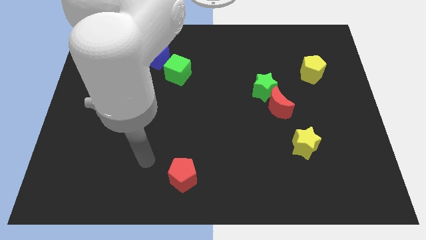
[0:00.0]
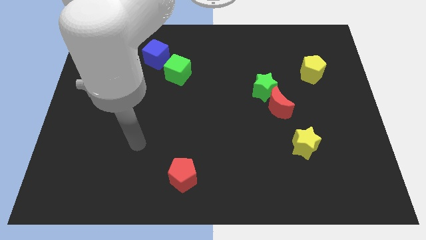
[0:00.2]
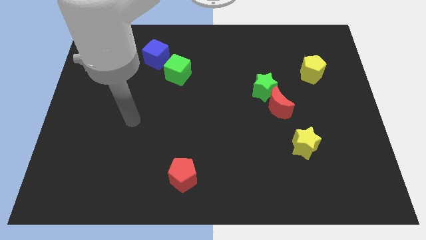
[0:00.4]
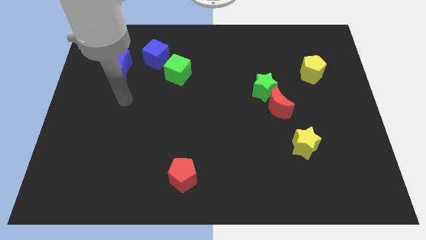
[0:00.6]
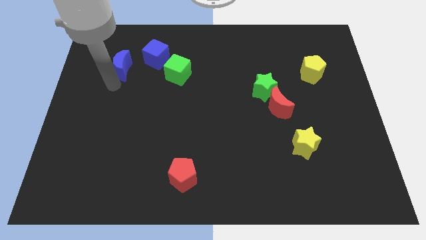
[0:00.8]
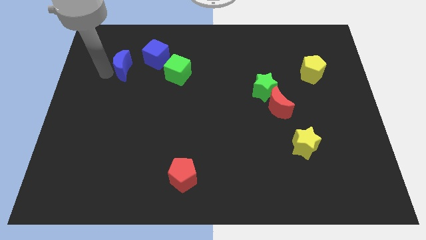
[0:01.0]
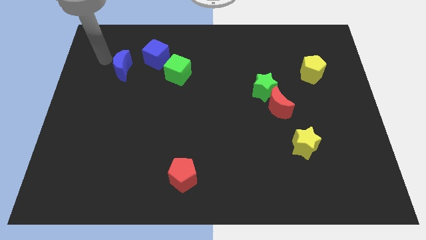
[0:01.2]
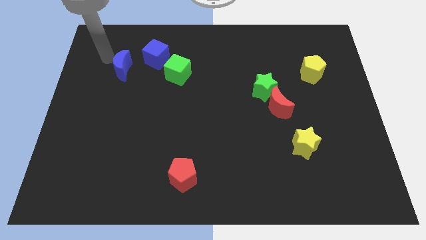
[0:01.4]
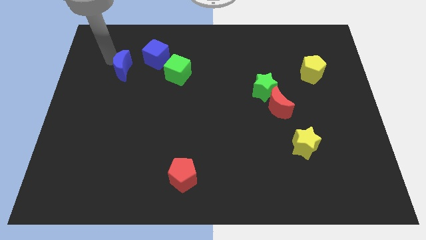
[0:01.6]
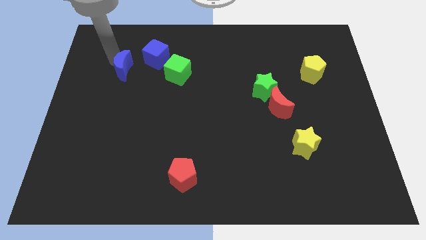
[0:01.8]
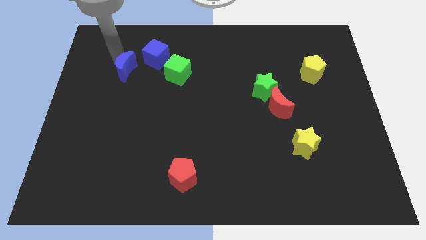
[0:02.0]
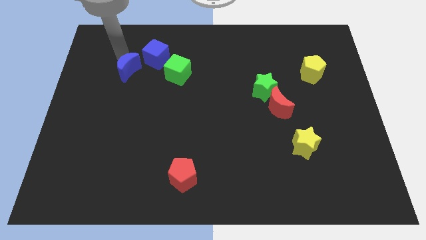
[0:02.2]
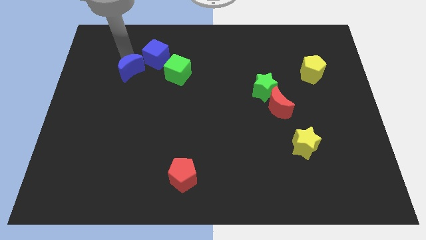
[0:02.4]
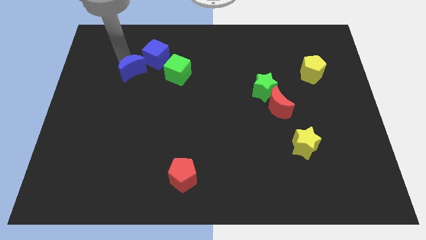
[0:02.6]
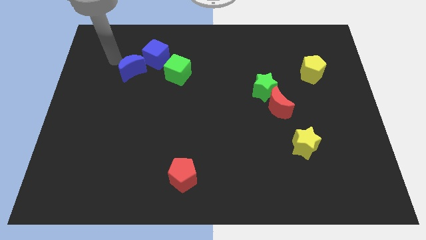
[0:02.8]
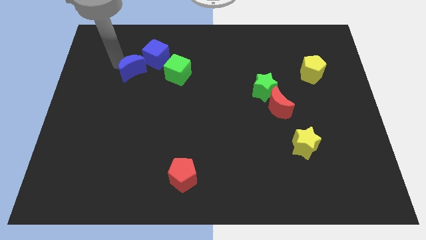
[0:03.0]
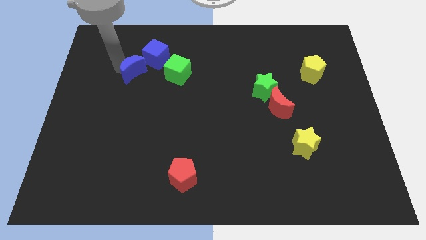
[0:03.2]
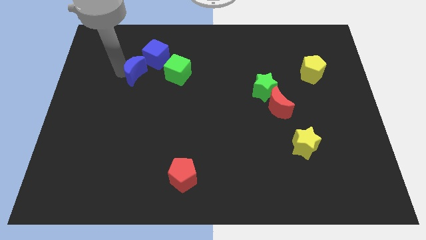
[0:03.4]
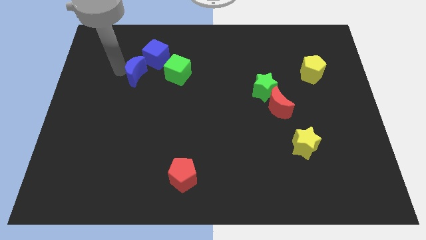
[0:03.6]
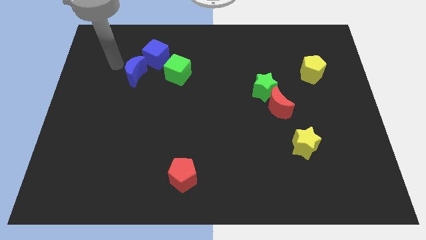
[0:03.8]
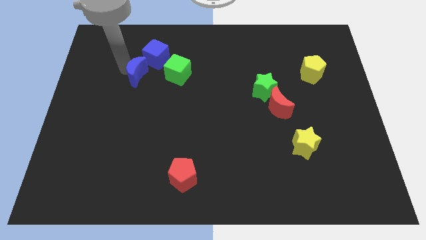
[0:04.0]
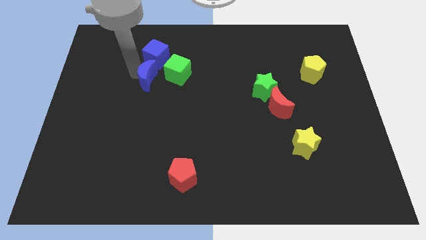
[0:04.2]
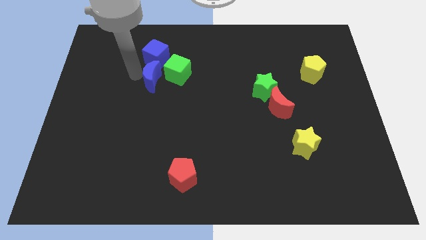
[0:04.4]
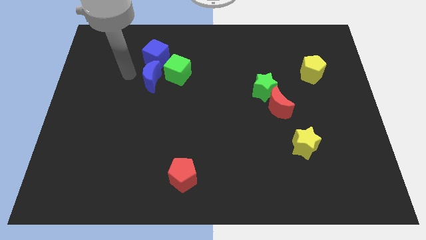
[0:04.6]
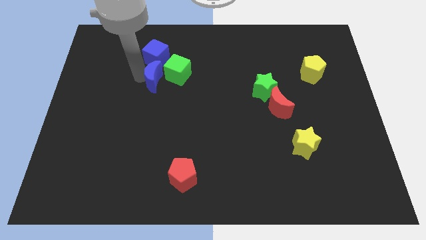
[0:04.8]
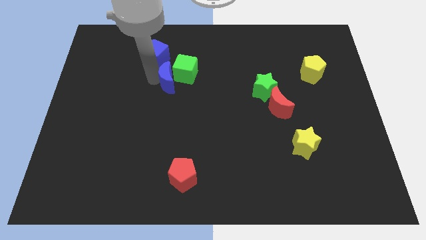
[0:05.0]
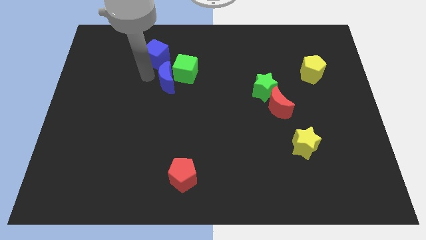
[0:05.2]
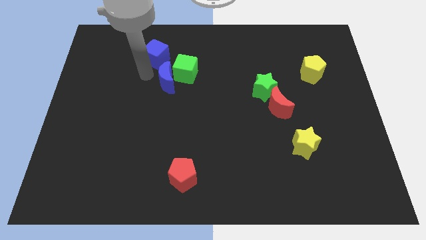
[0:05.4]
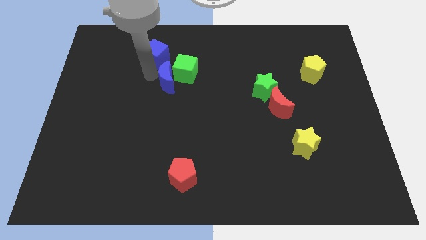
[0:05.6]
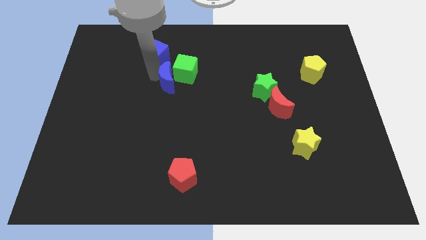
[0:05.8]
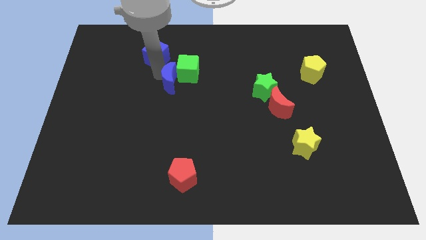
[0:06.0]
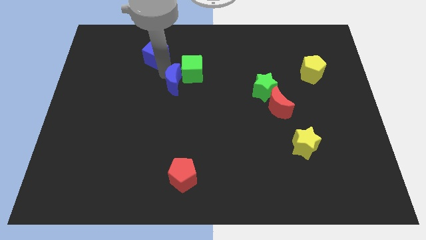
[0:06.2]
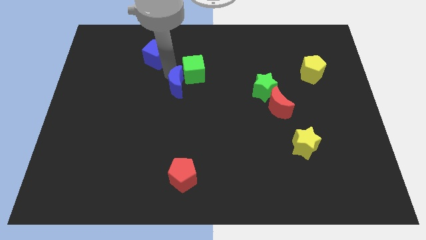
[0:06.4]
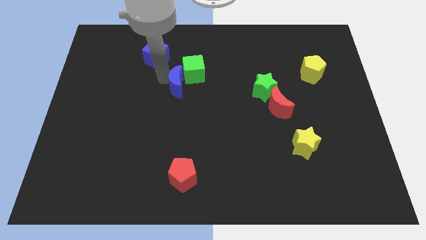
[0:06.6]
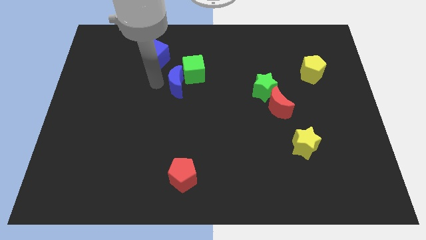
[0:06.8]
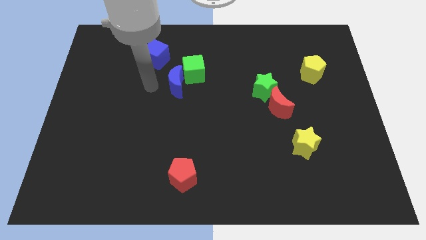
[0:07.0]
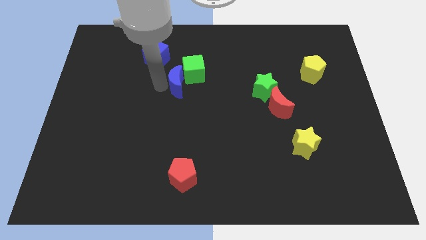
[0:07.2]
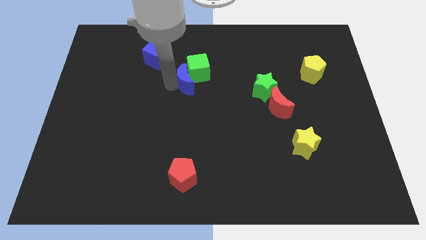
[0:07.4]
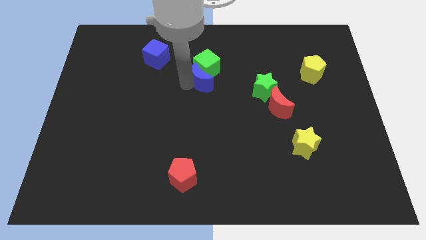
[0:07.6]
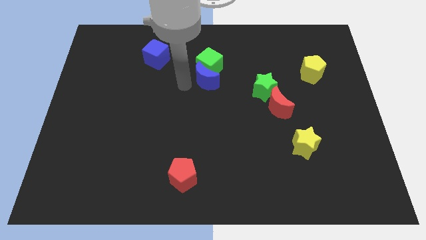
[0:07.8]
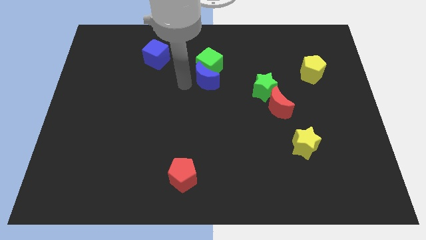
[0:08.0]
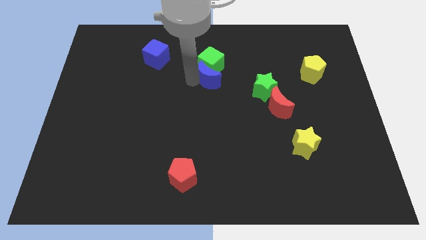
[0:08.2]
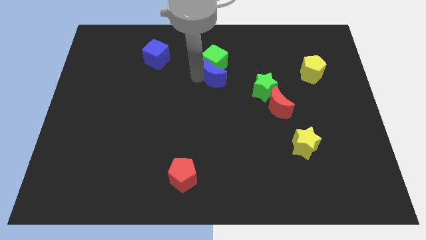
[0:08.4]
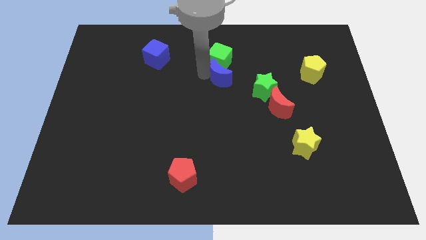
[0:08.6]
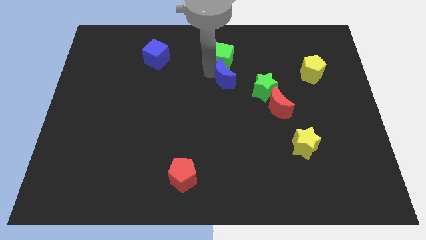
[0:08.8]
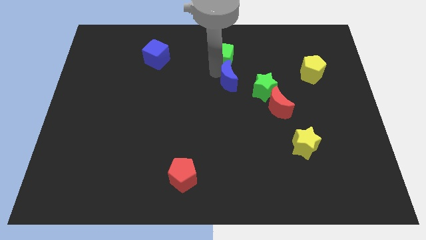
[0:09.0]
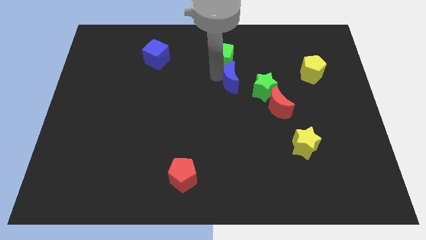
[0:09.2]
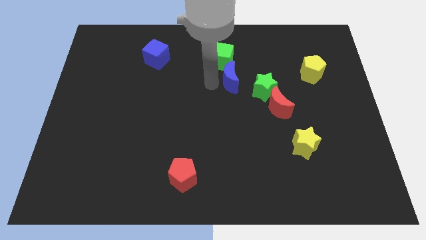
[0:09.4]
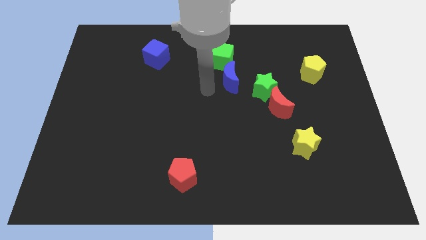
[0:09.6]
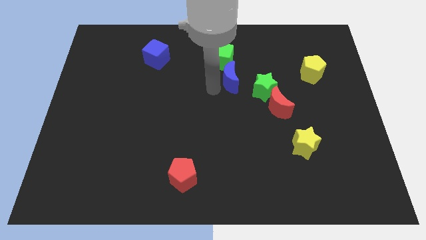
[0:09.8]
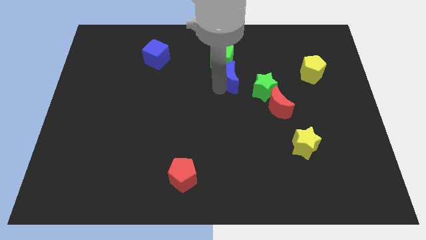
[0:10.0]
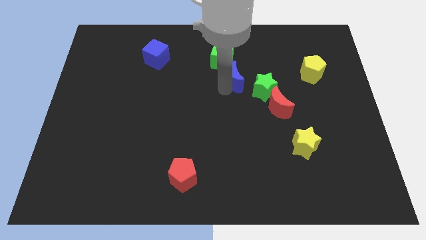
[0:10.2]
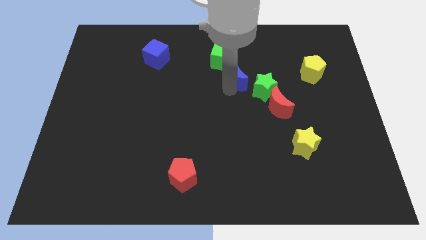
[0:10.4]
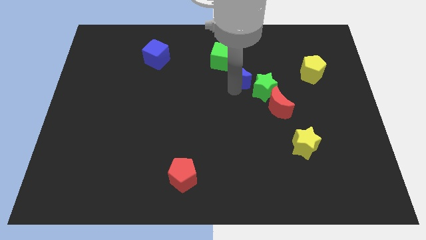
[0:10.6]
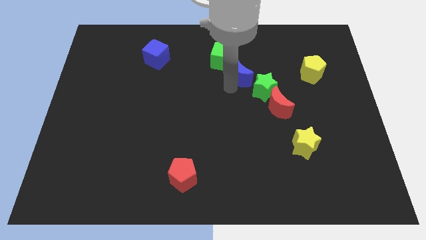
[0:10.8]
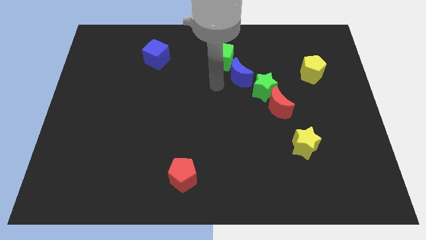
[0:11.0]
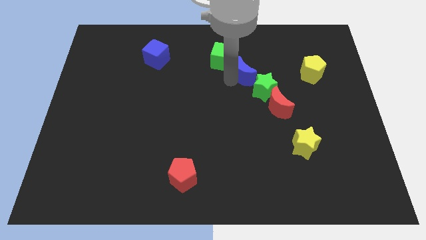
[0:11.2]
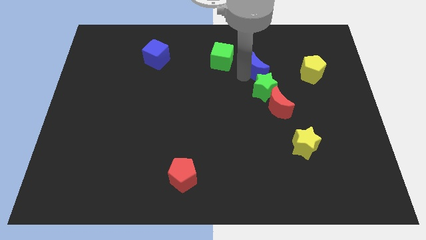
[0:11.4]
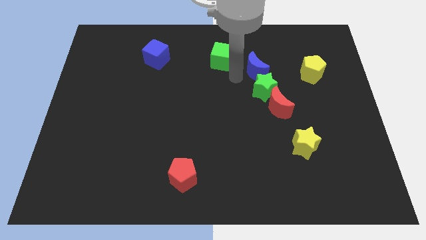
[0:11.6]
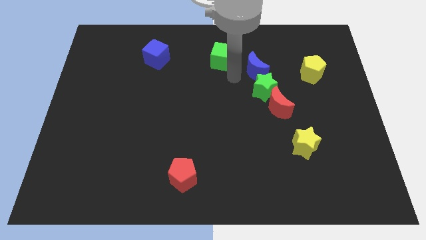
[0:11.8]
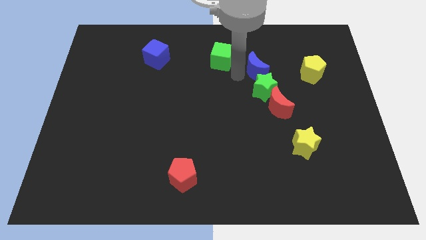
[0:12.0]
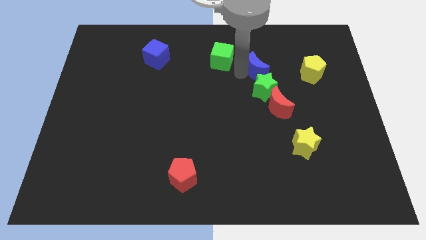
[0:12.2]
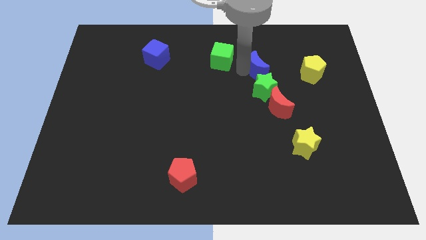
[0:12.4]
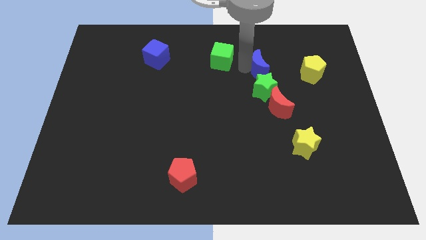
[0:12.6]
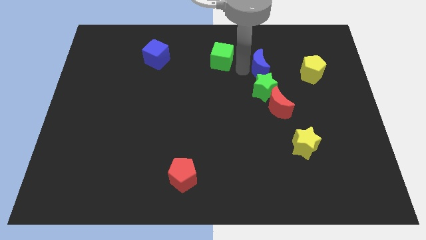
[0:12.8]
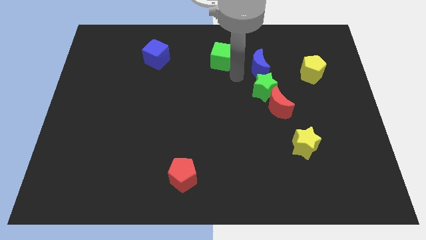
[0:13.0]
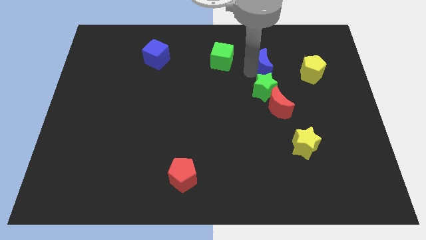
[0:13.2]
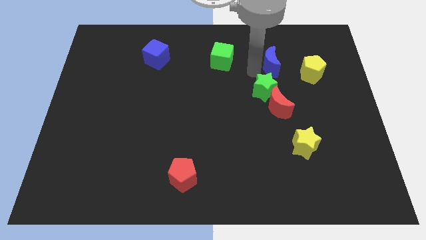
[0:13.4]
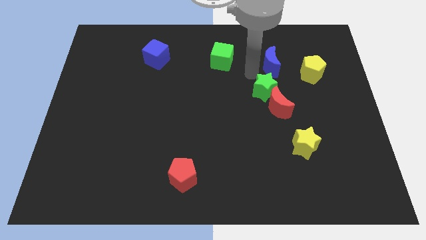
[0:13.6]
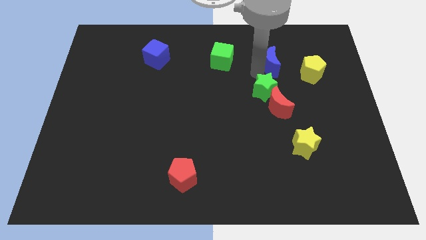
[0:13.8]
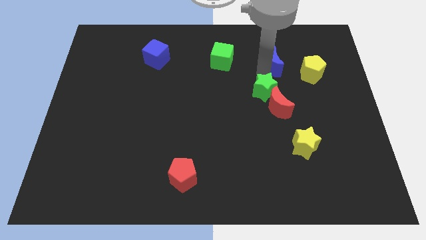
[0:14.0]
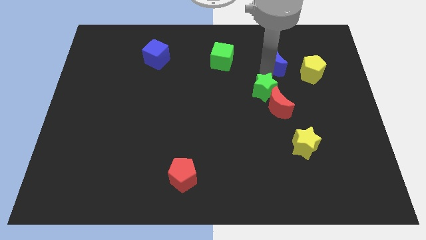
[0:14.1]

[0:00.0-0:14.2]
move the blue moon diagonally up and to the left of the yellow pentagon

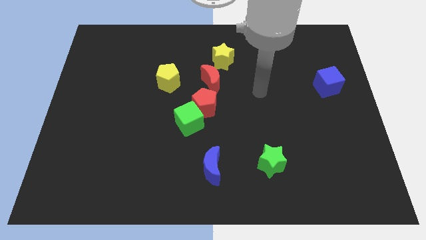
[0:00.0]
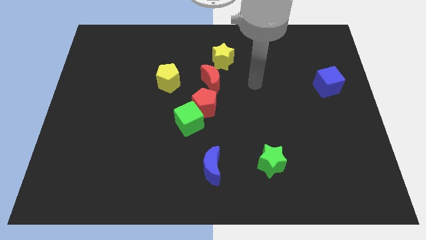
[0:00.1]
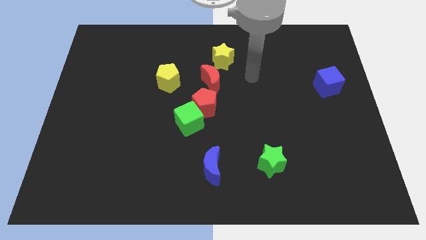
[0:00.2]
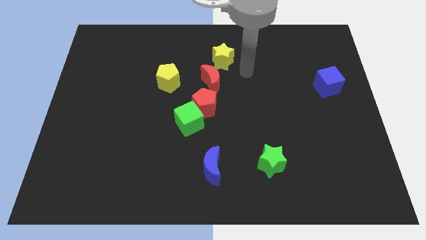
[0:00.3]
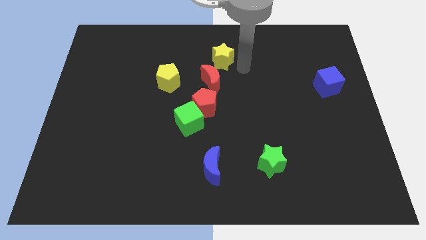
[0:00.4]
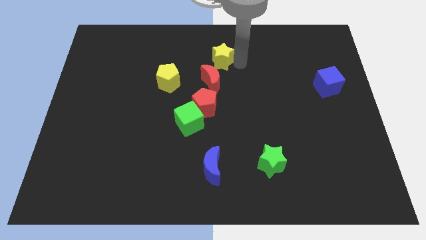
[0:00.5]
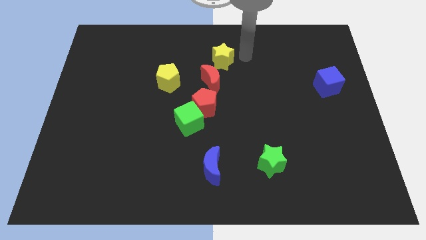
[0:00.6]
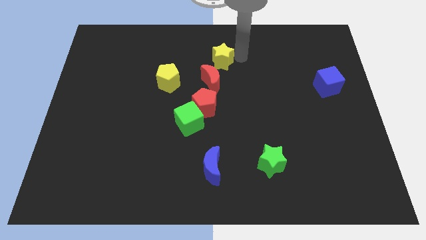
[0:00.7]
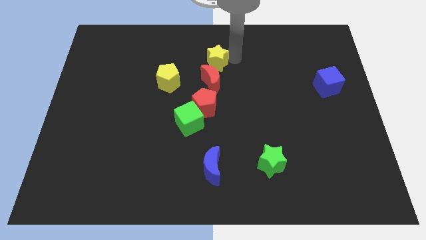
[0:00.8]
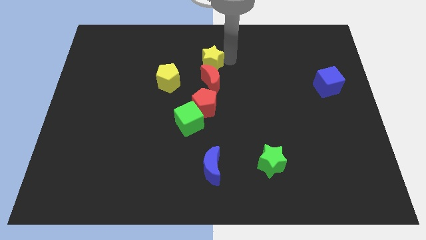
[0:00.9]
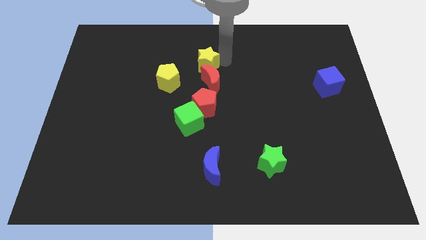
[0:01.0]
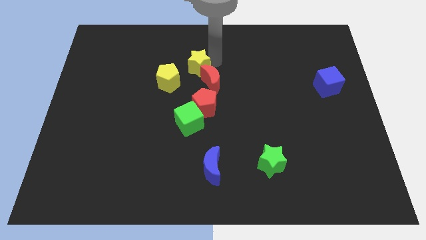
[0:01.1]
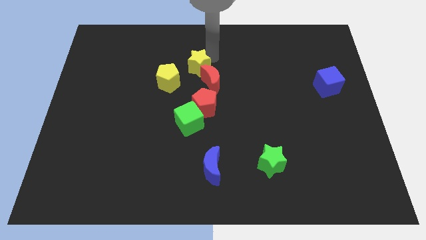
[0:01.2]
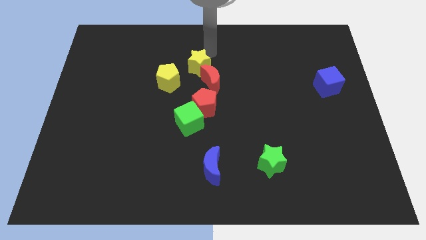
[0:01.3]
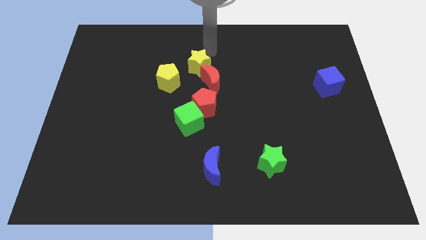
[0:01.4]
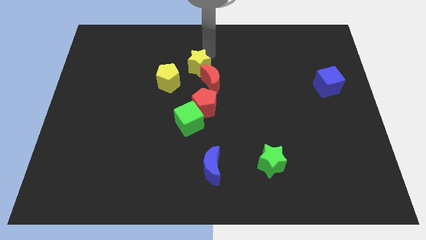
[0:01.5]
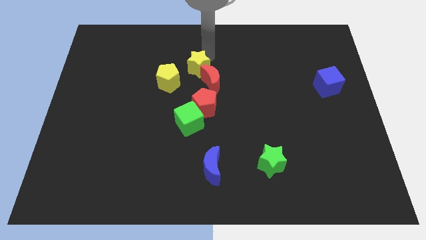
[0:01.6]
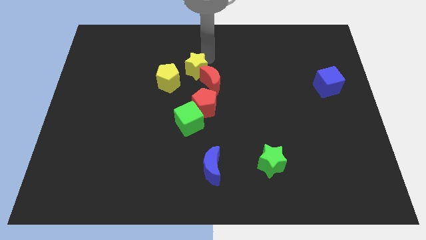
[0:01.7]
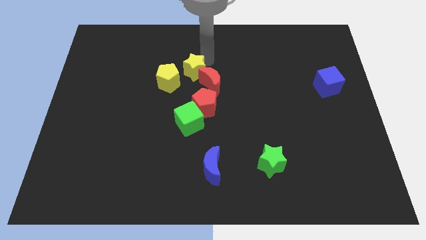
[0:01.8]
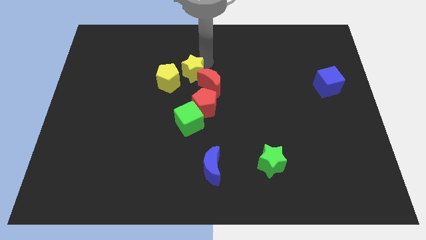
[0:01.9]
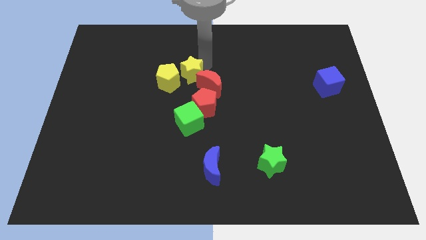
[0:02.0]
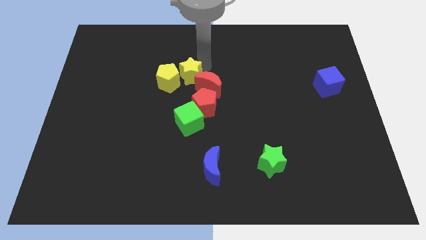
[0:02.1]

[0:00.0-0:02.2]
slide the yellow star diagonally up and to the left of the red pentagon
